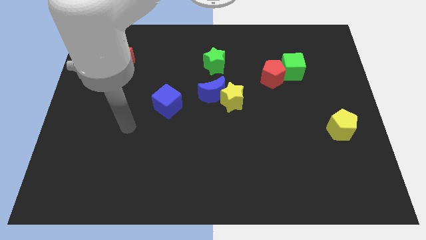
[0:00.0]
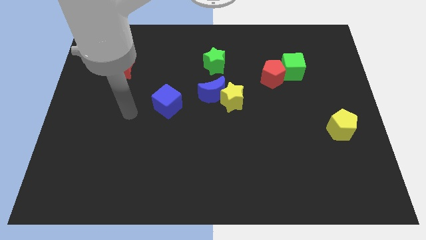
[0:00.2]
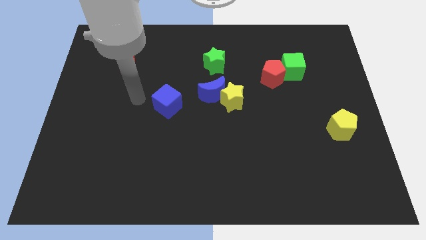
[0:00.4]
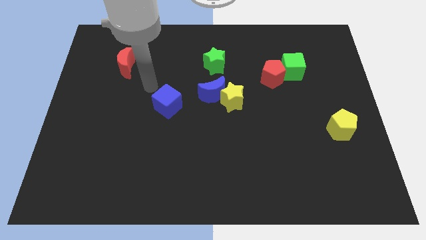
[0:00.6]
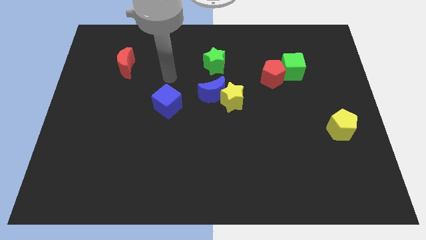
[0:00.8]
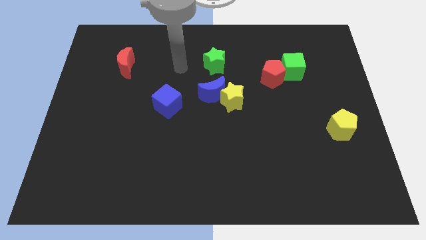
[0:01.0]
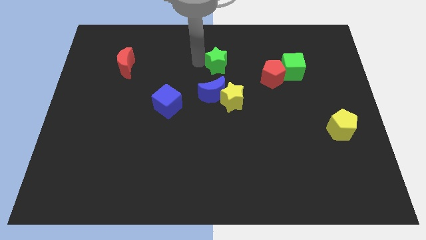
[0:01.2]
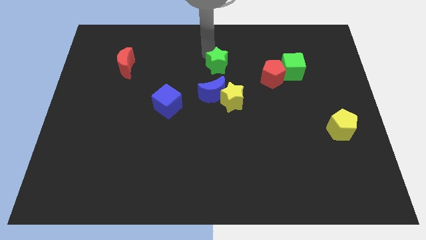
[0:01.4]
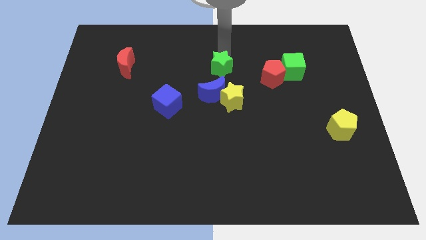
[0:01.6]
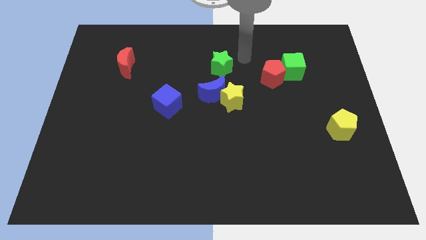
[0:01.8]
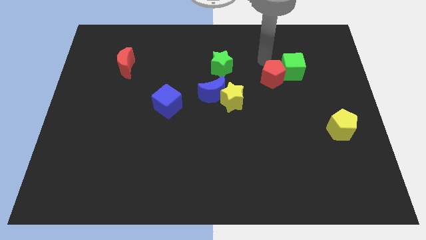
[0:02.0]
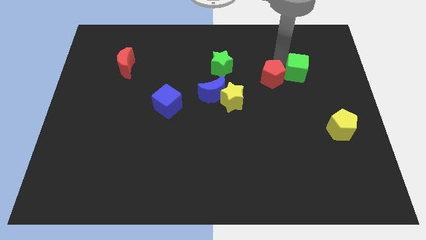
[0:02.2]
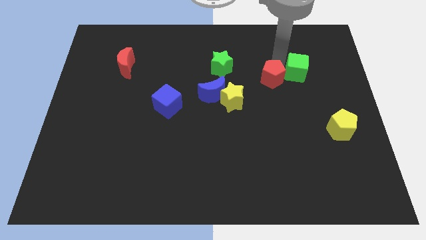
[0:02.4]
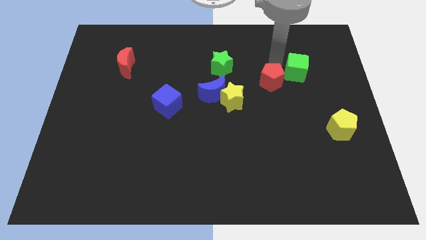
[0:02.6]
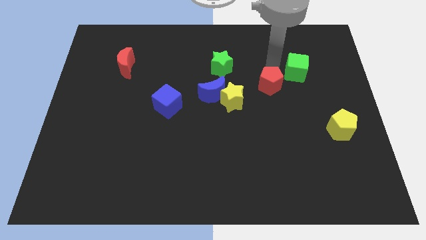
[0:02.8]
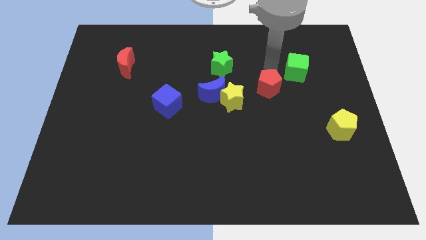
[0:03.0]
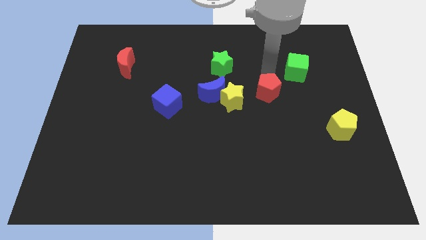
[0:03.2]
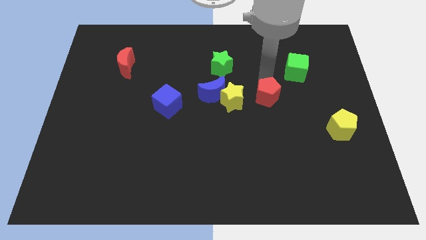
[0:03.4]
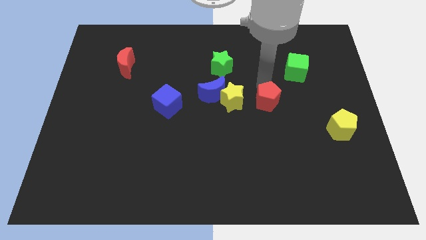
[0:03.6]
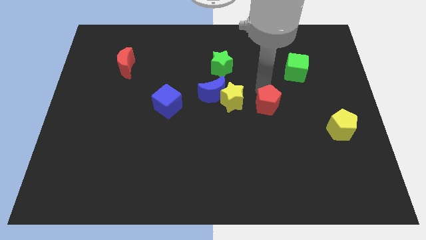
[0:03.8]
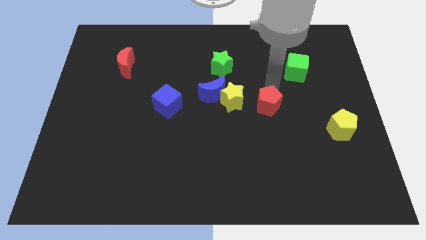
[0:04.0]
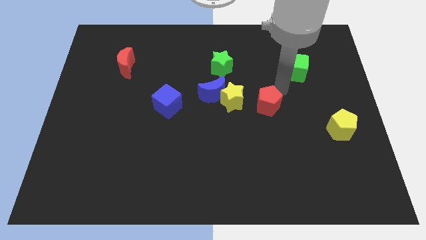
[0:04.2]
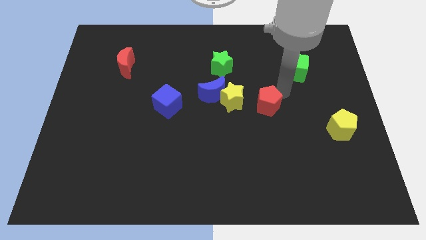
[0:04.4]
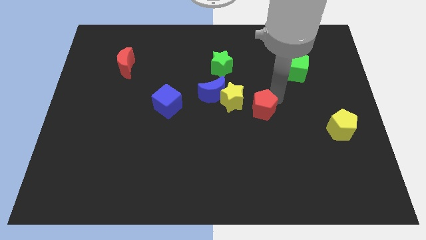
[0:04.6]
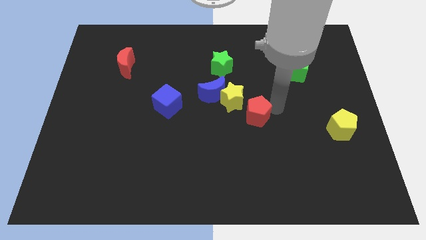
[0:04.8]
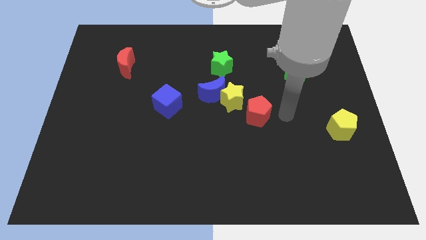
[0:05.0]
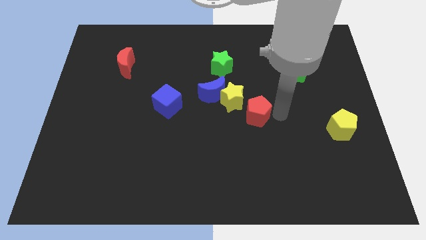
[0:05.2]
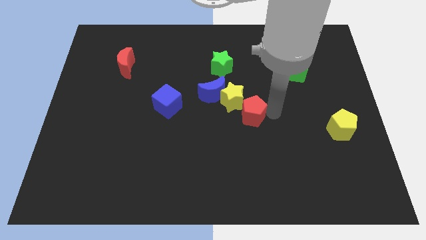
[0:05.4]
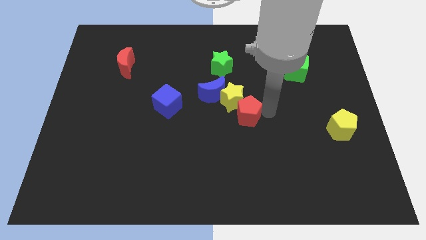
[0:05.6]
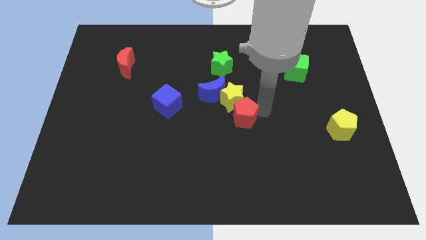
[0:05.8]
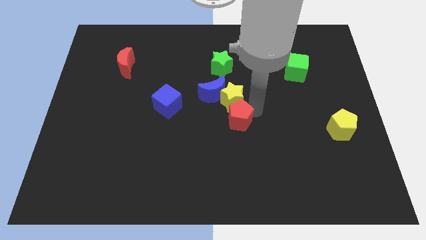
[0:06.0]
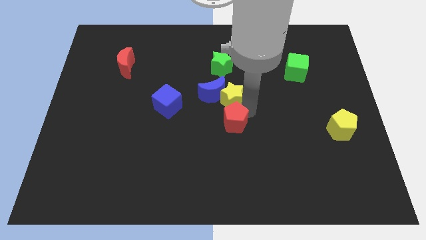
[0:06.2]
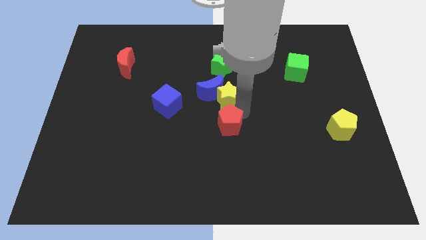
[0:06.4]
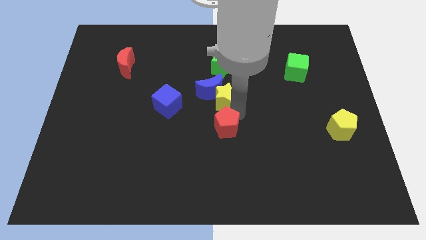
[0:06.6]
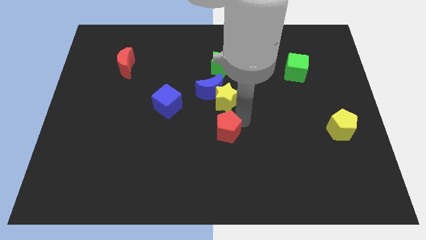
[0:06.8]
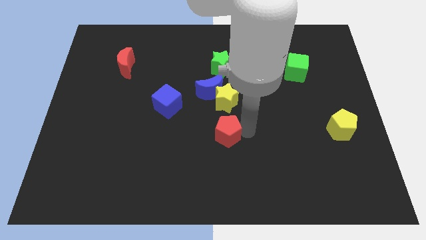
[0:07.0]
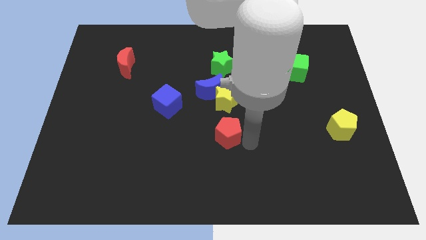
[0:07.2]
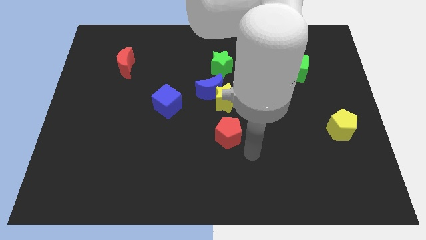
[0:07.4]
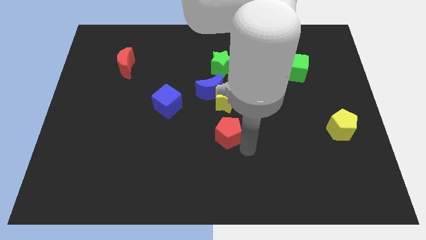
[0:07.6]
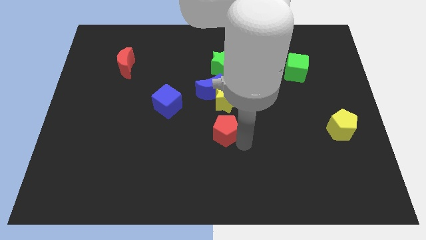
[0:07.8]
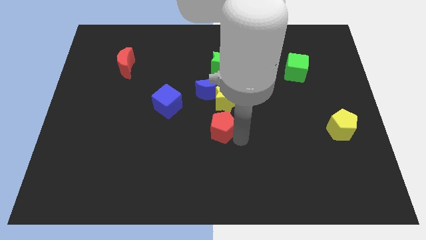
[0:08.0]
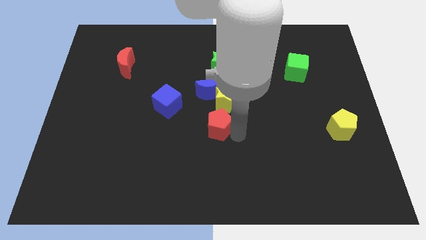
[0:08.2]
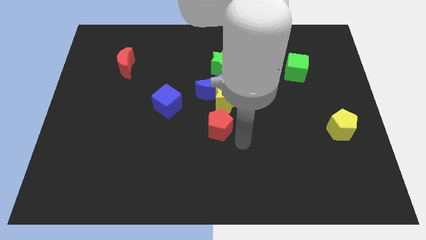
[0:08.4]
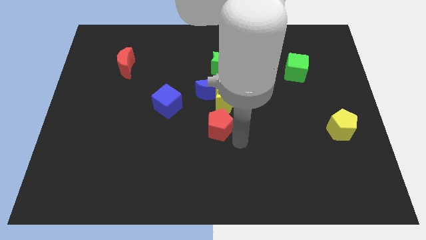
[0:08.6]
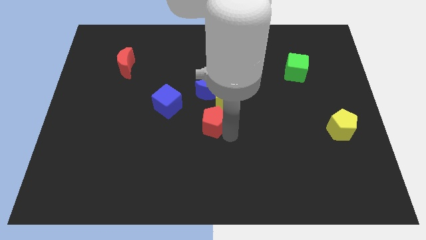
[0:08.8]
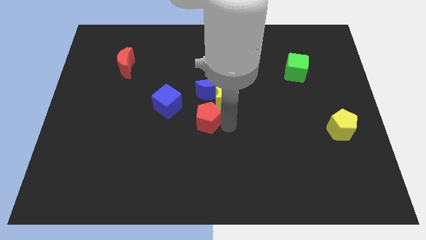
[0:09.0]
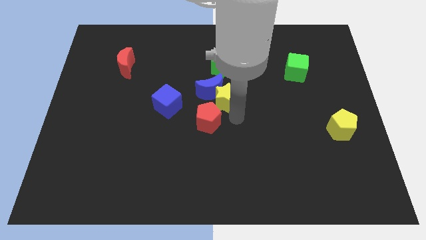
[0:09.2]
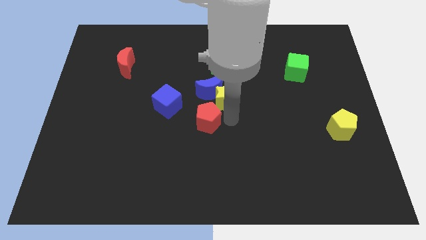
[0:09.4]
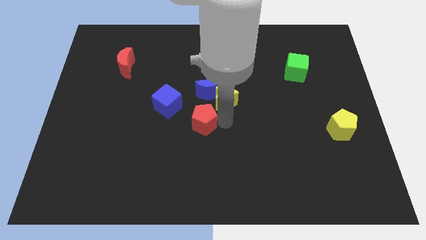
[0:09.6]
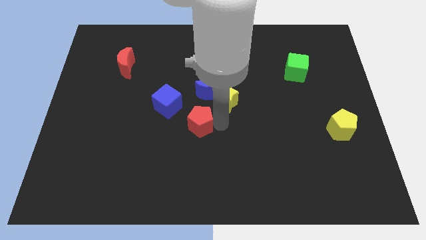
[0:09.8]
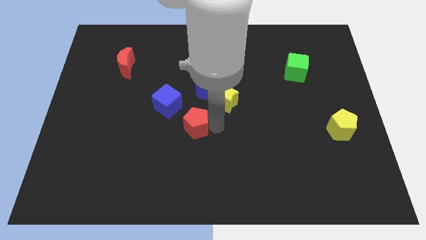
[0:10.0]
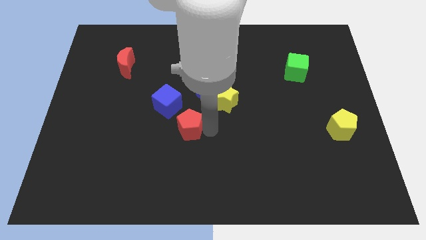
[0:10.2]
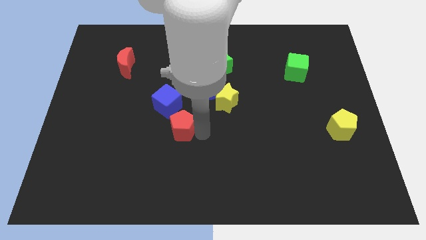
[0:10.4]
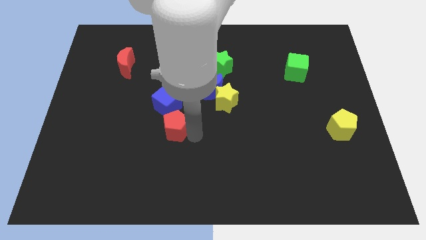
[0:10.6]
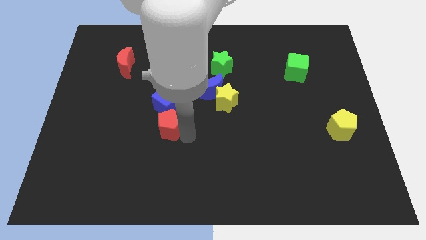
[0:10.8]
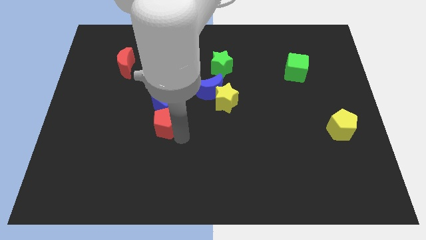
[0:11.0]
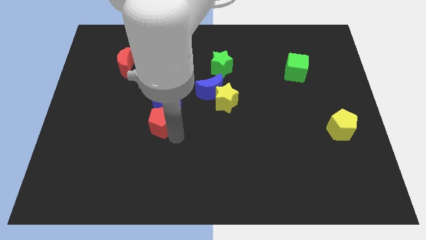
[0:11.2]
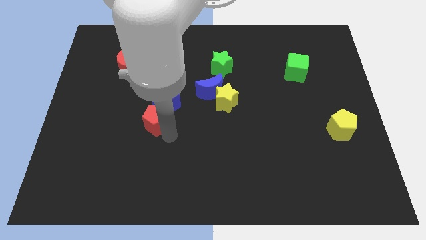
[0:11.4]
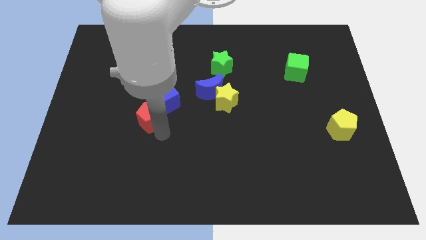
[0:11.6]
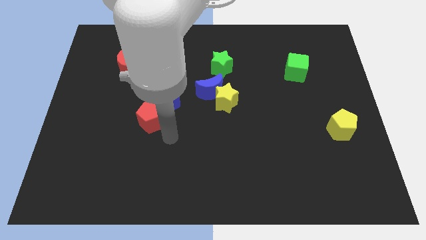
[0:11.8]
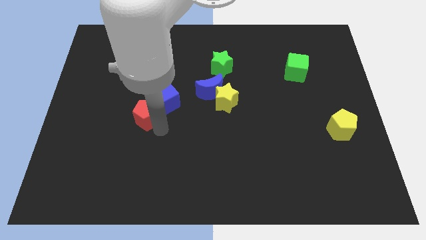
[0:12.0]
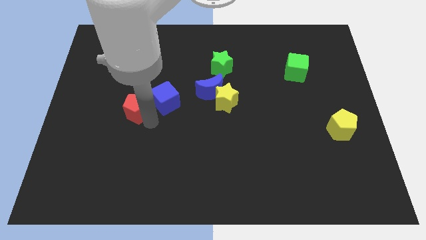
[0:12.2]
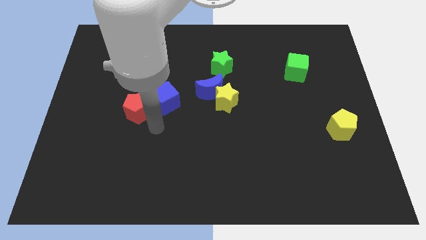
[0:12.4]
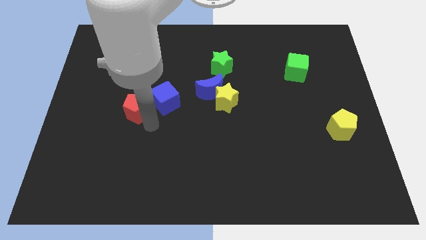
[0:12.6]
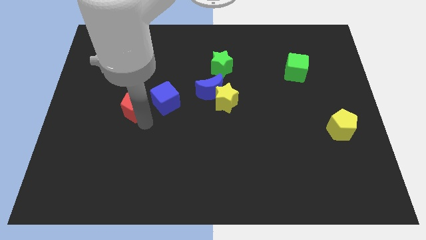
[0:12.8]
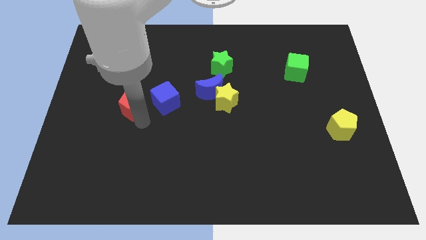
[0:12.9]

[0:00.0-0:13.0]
slide the red pentagon to the bottom of the red moon

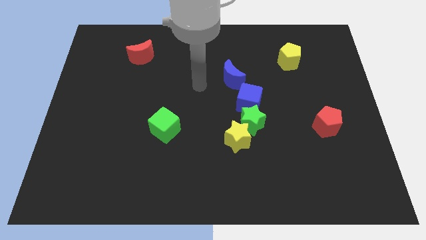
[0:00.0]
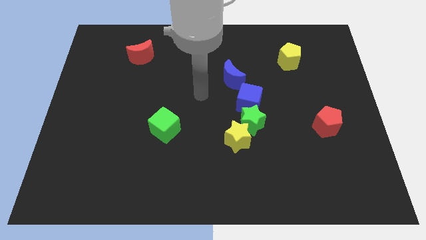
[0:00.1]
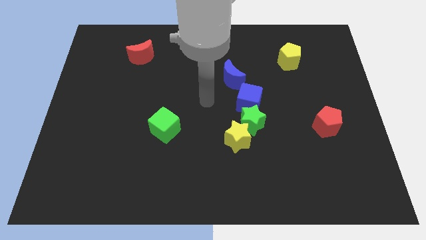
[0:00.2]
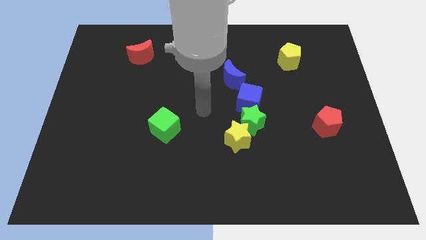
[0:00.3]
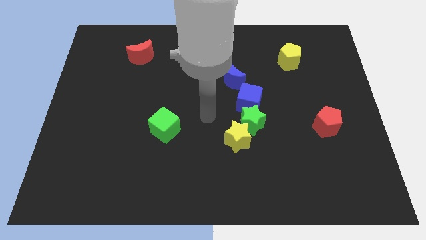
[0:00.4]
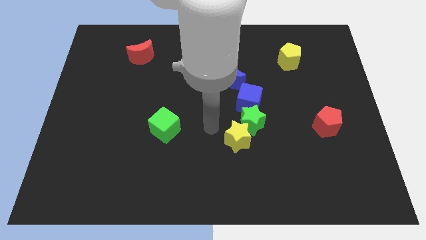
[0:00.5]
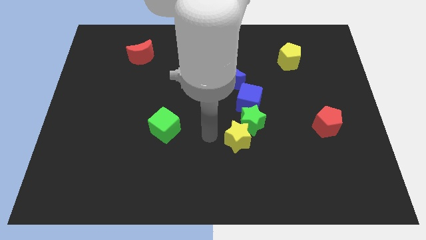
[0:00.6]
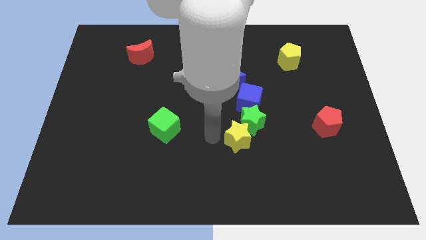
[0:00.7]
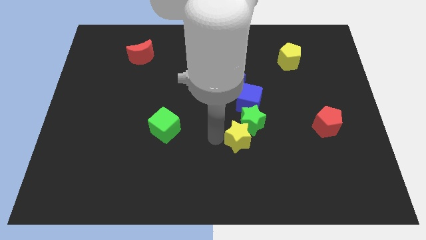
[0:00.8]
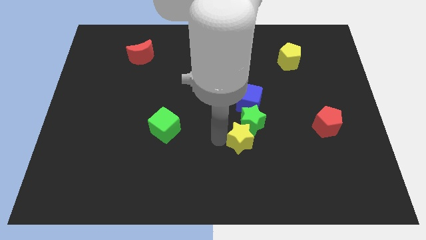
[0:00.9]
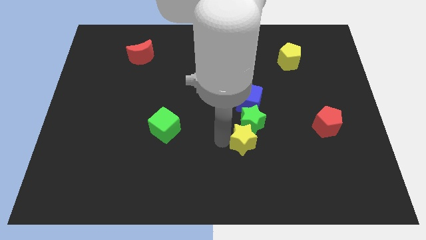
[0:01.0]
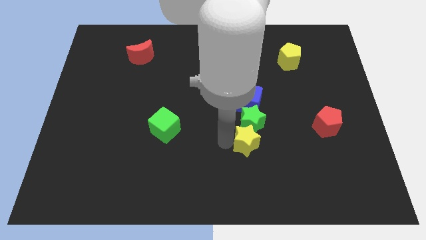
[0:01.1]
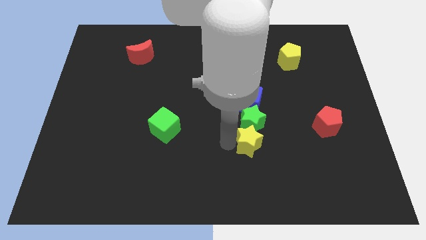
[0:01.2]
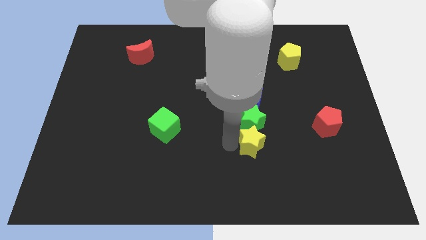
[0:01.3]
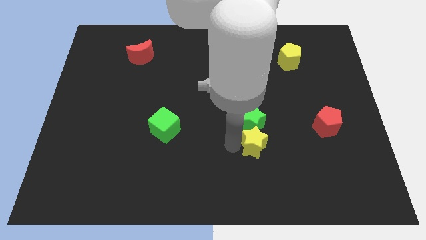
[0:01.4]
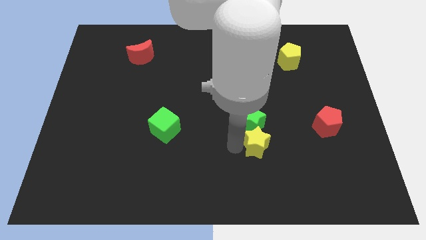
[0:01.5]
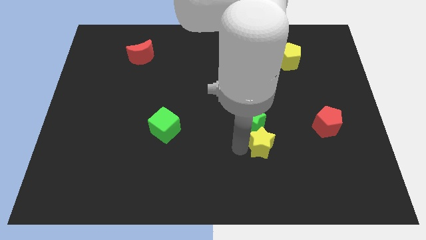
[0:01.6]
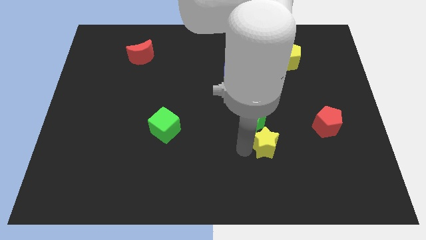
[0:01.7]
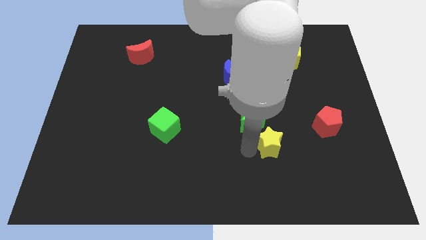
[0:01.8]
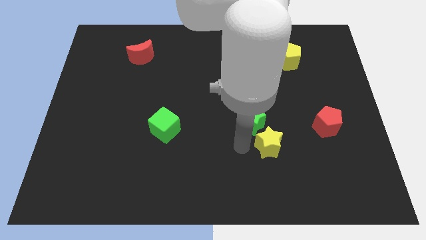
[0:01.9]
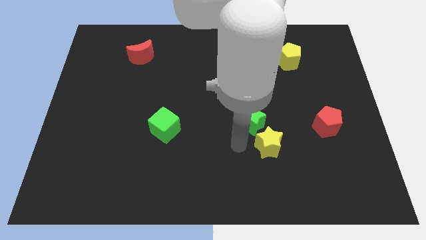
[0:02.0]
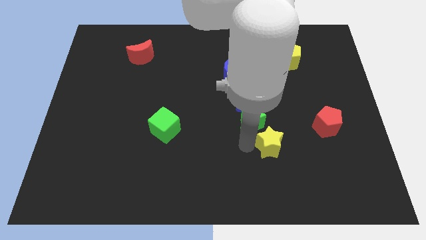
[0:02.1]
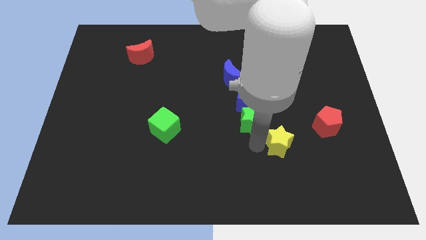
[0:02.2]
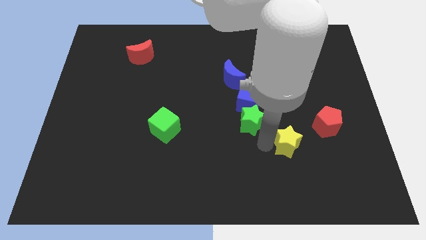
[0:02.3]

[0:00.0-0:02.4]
push the yellow star to the bottom left of the red pentagon
